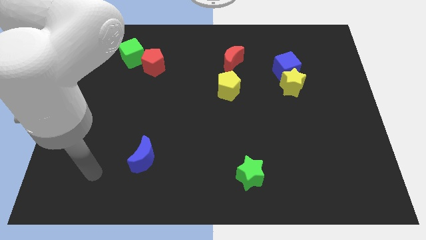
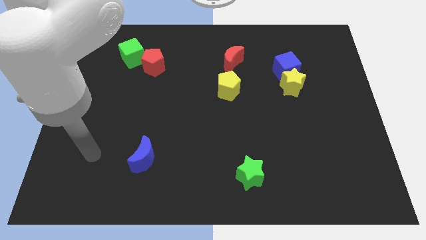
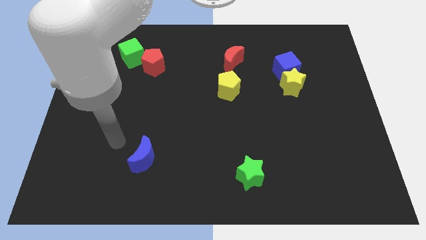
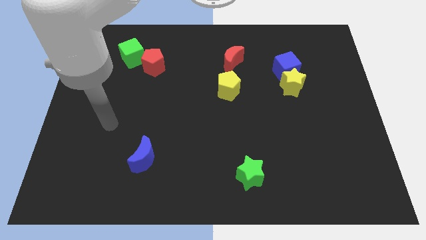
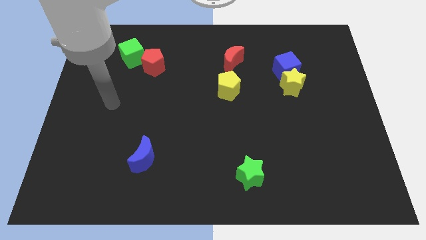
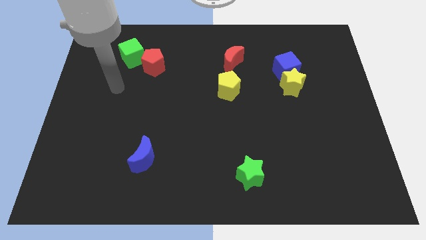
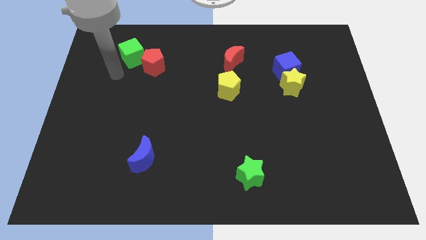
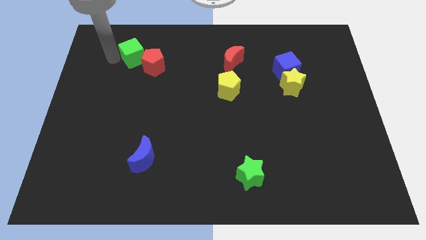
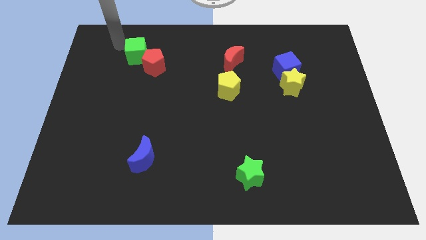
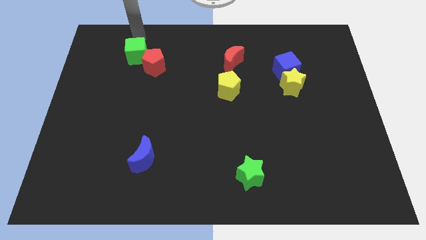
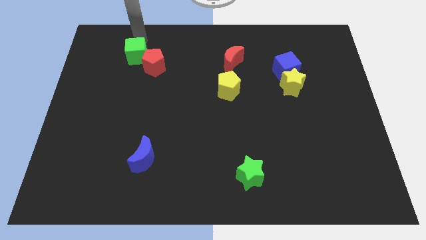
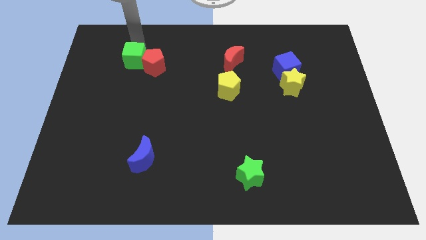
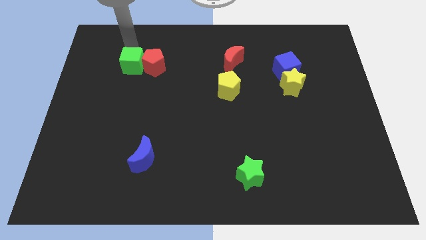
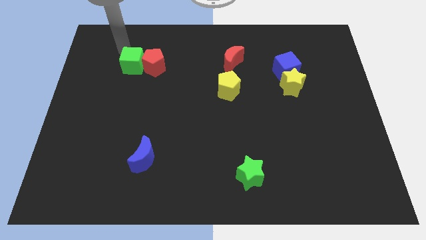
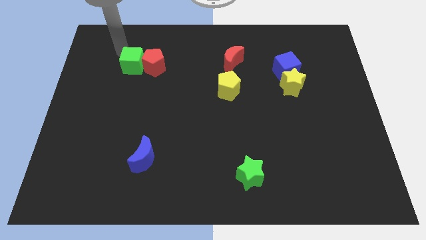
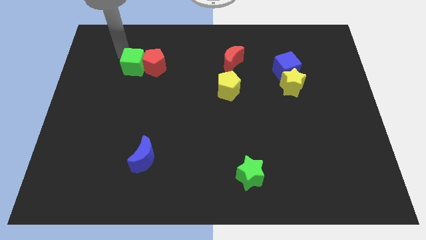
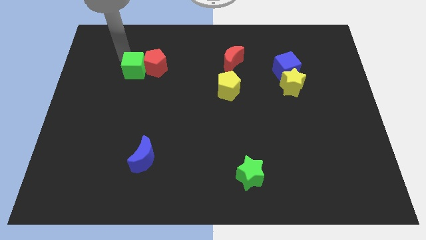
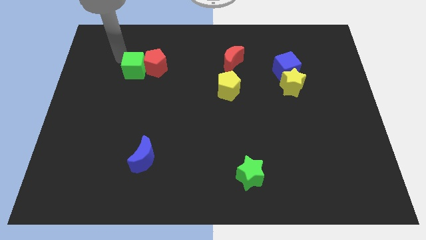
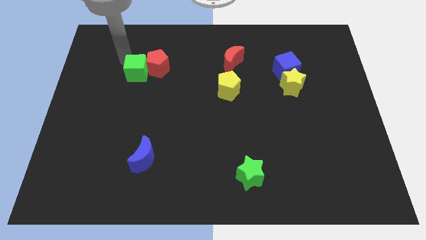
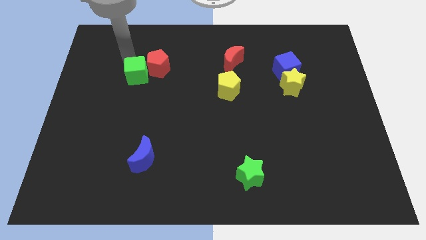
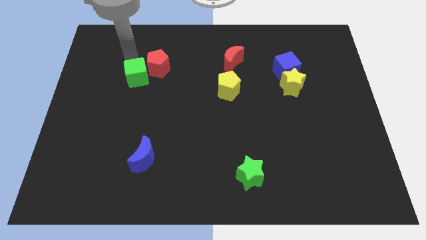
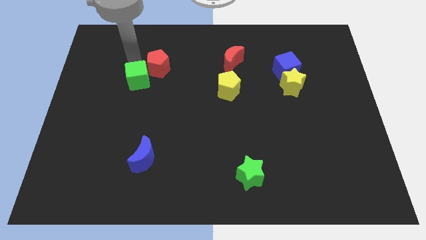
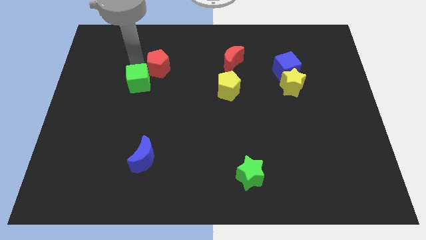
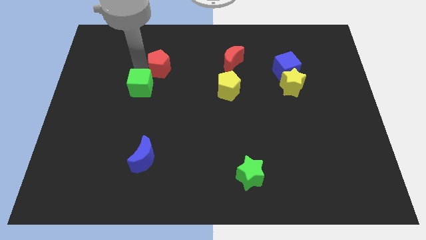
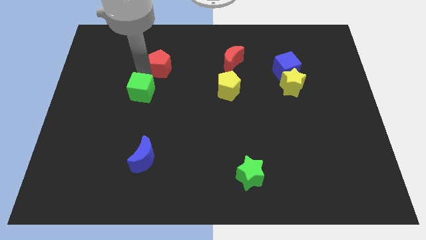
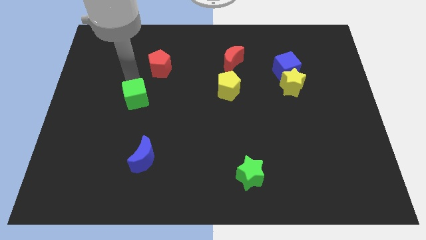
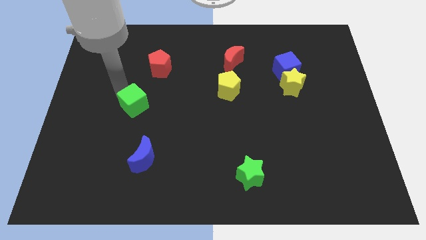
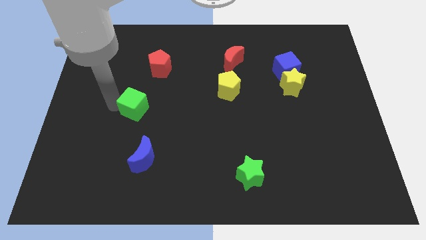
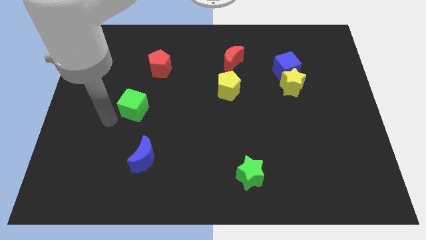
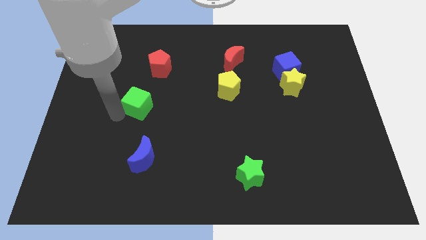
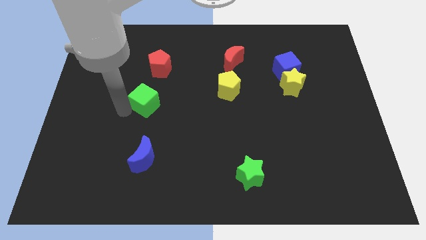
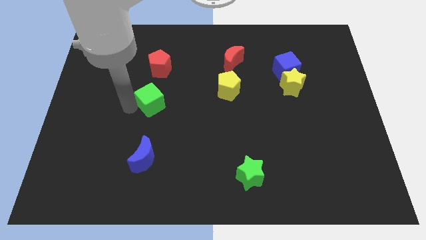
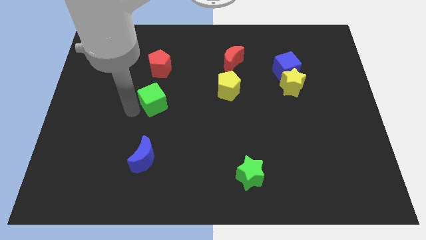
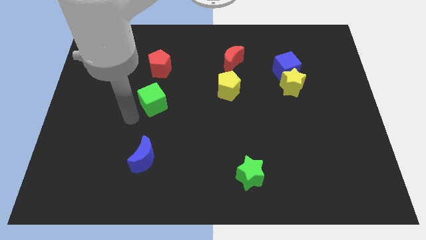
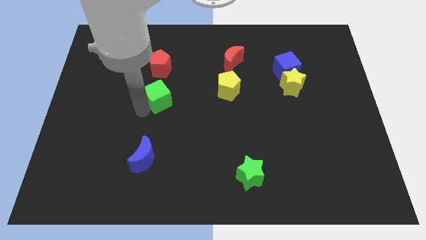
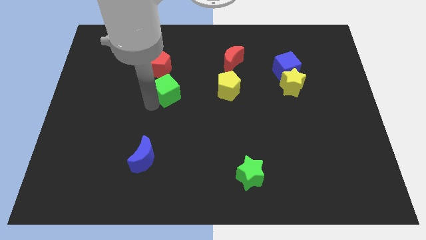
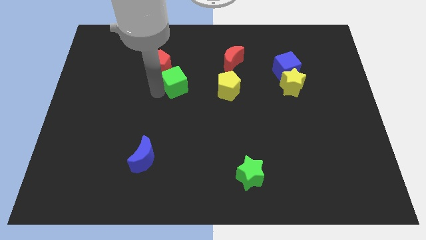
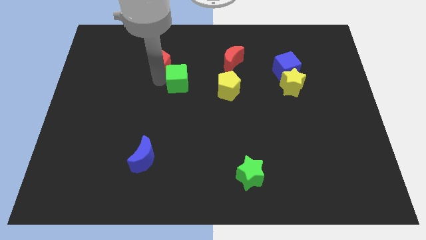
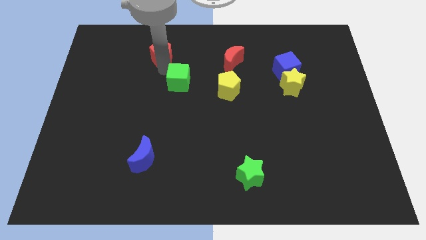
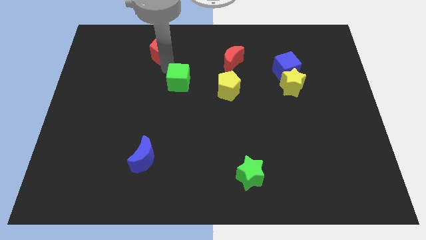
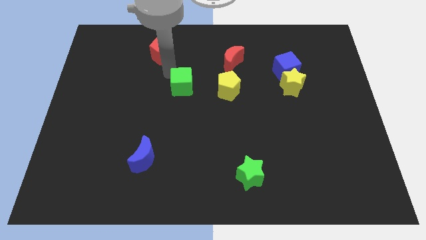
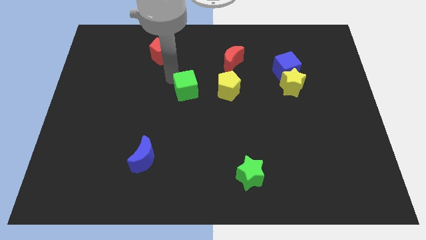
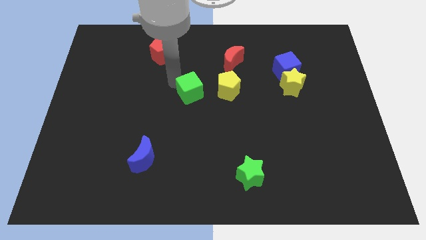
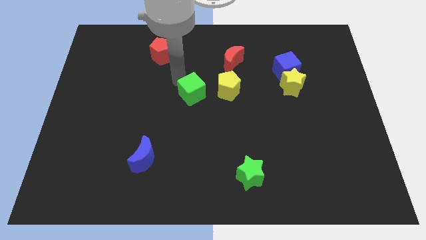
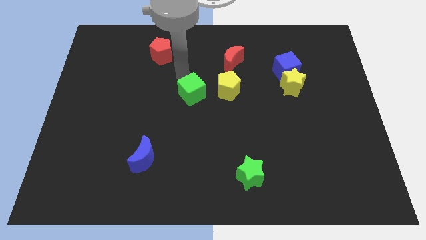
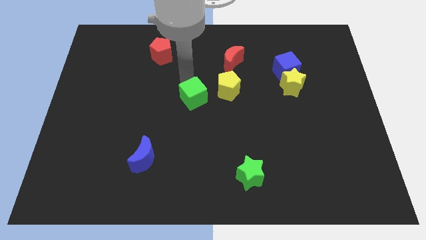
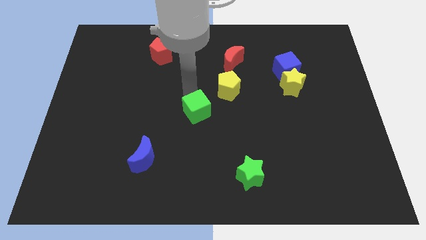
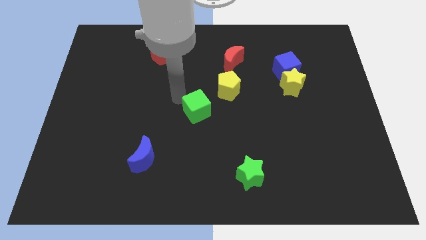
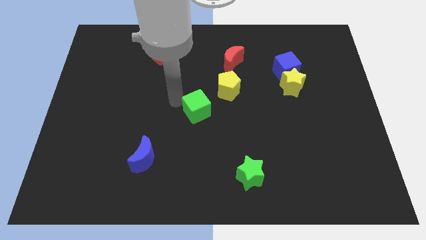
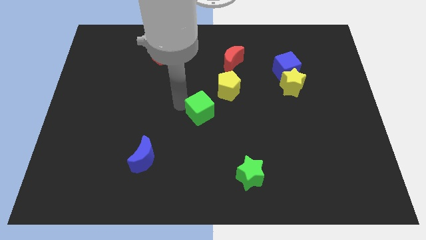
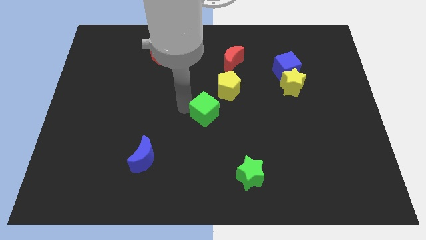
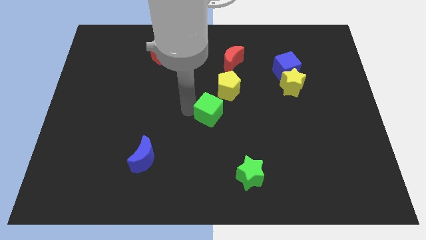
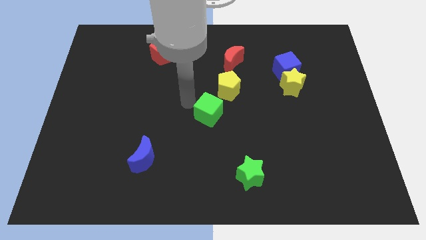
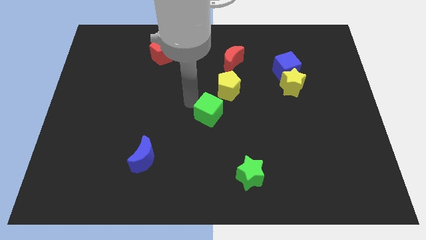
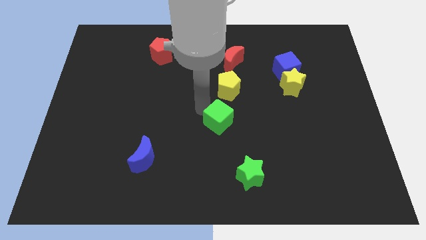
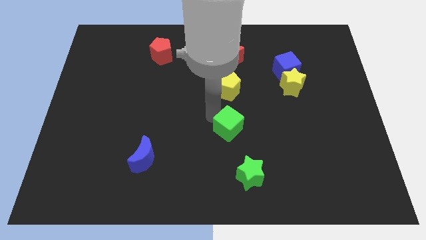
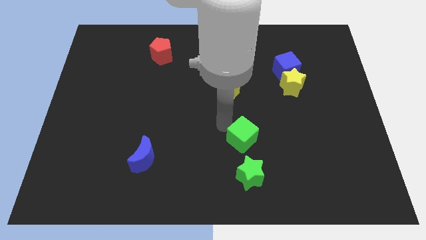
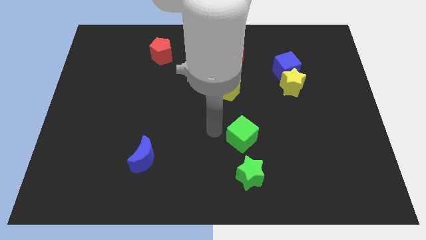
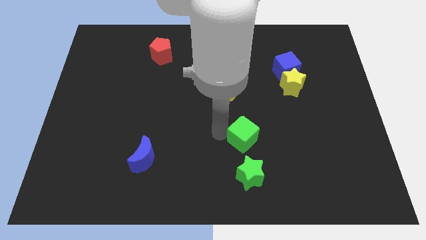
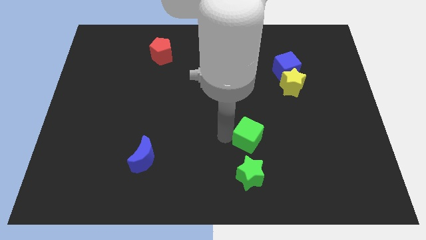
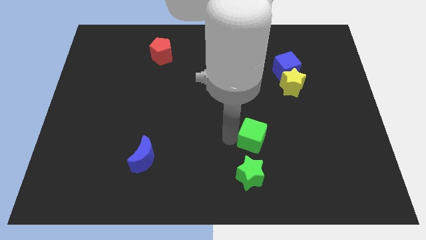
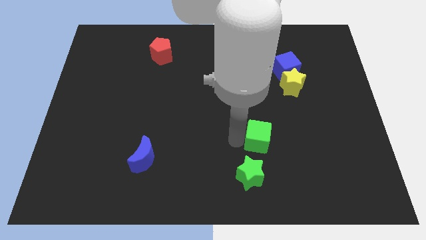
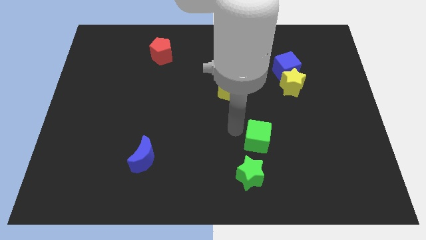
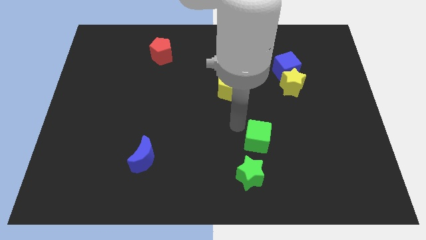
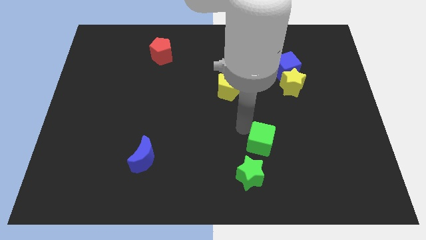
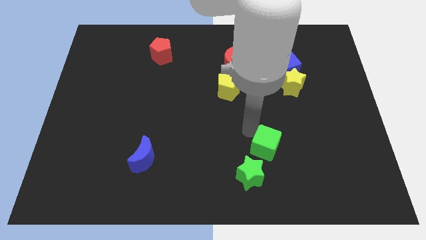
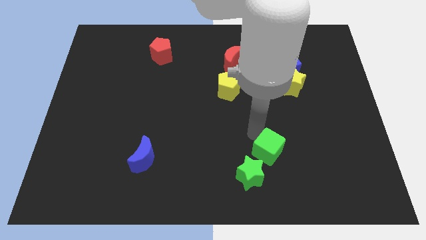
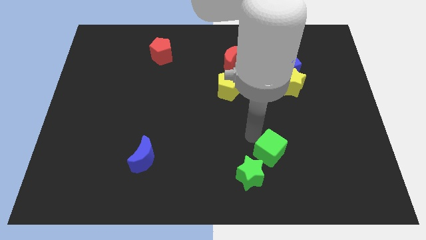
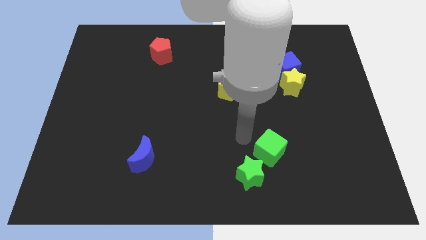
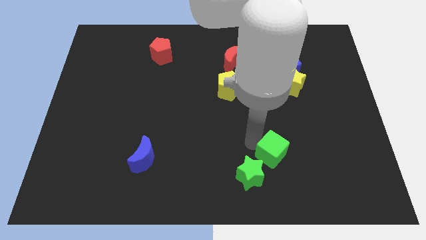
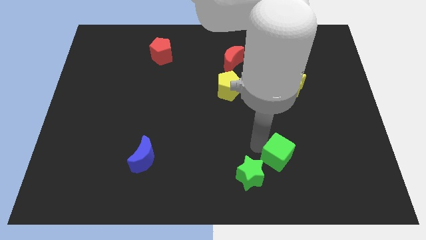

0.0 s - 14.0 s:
slide the green cube to the right of the green star
